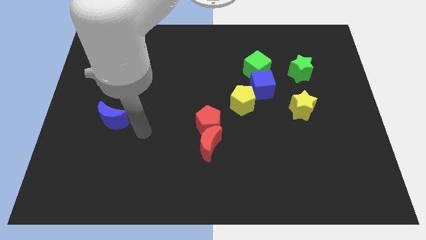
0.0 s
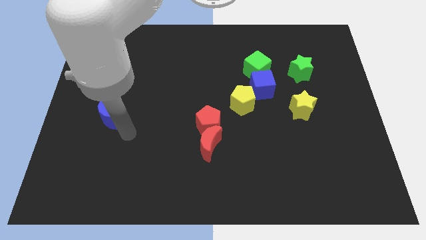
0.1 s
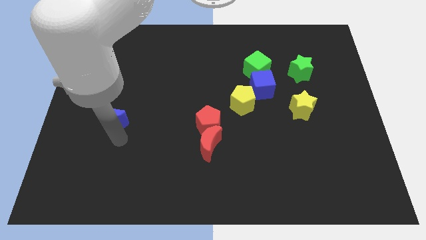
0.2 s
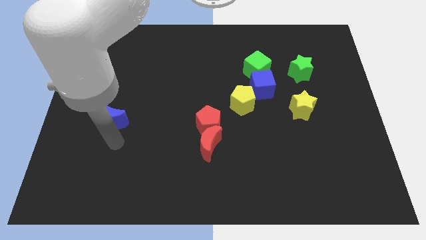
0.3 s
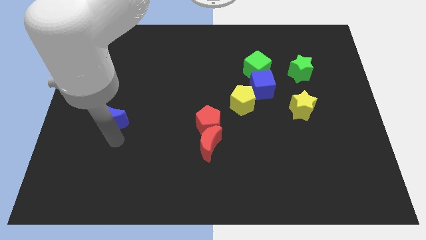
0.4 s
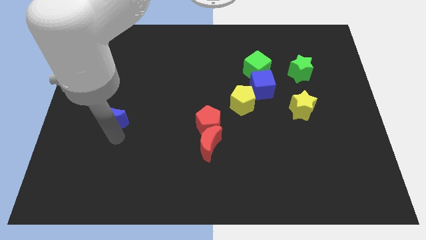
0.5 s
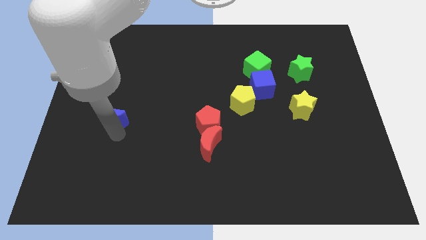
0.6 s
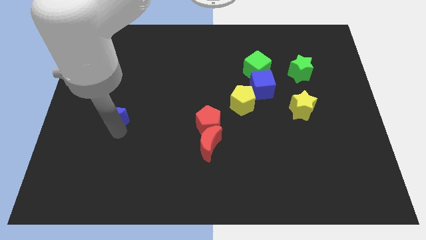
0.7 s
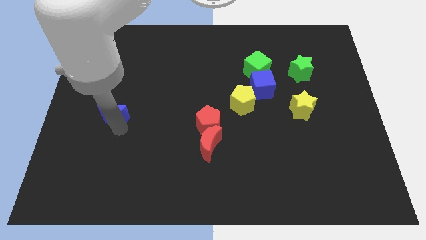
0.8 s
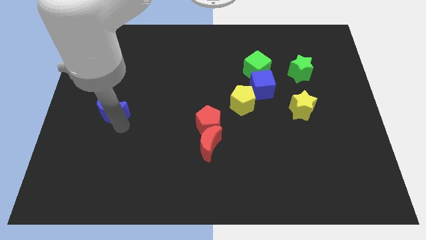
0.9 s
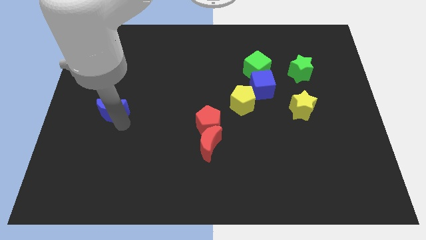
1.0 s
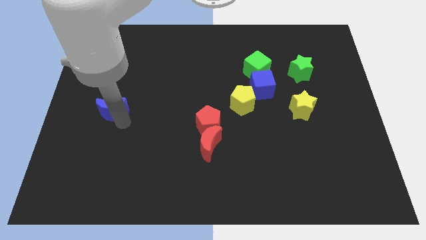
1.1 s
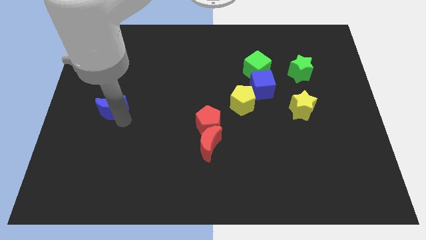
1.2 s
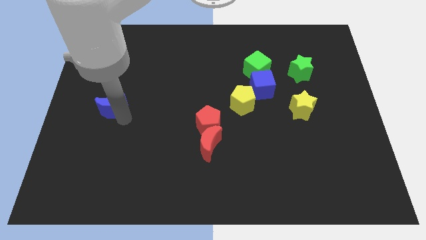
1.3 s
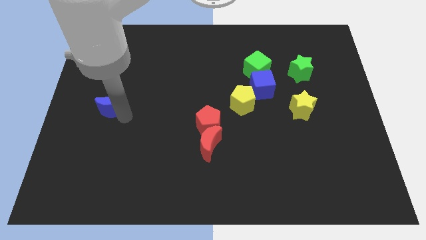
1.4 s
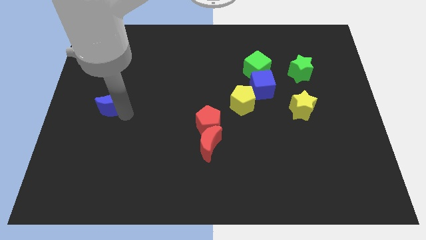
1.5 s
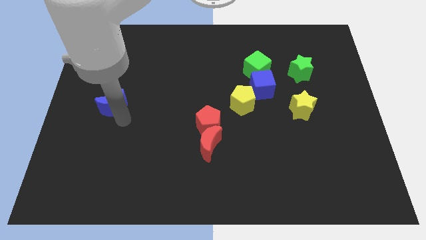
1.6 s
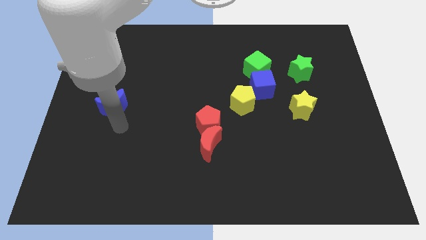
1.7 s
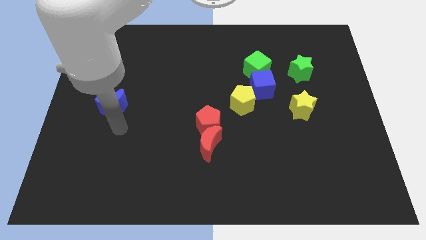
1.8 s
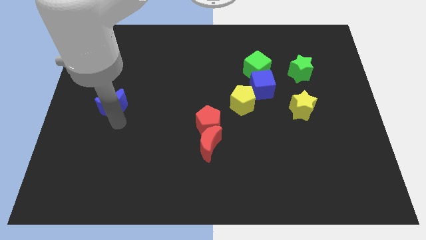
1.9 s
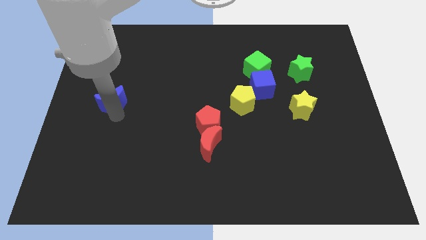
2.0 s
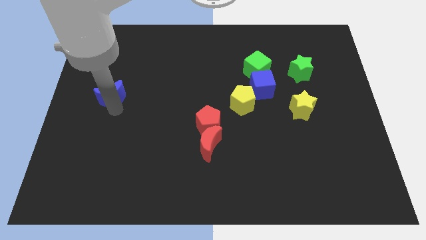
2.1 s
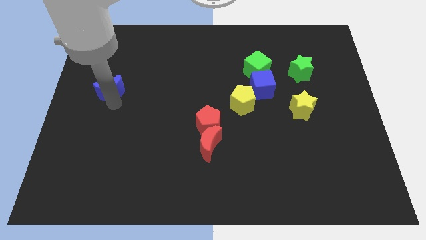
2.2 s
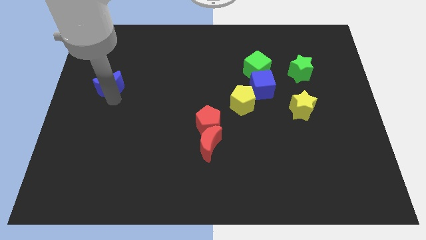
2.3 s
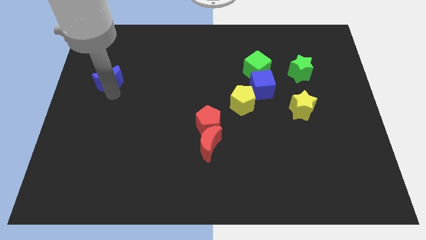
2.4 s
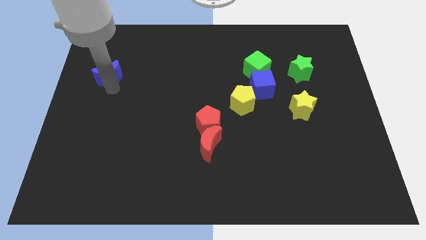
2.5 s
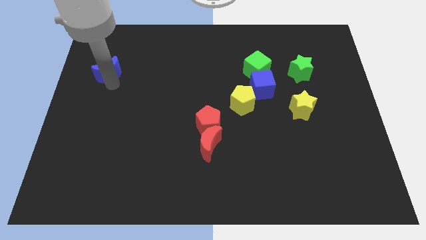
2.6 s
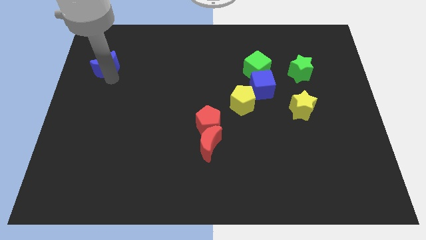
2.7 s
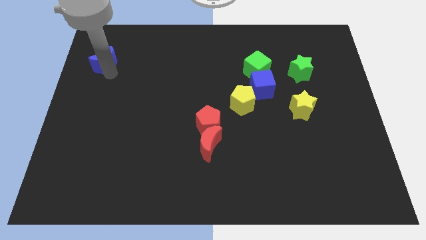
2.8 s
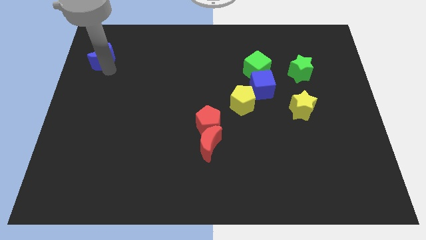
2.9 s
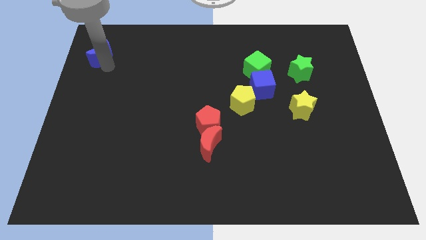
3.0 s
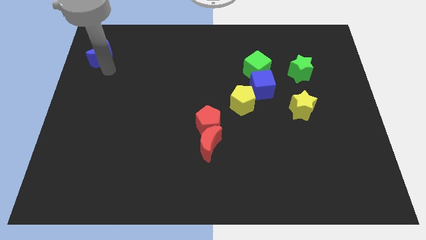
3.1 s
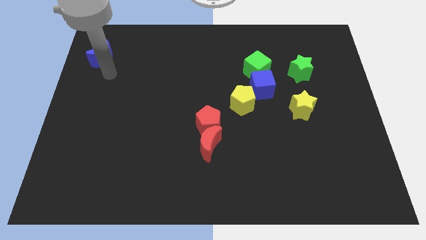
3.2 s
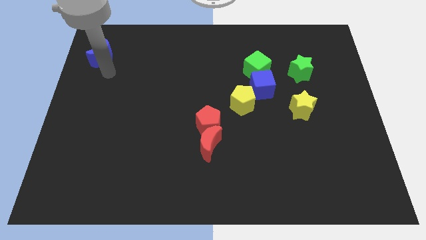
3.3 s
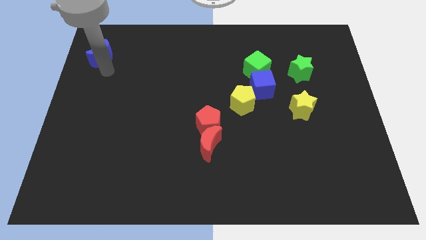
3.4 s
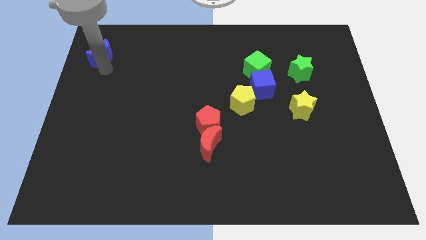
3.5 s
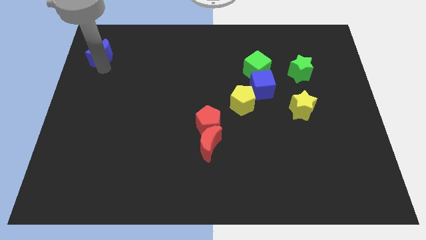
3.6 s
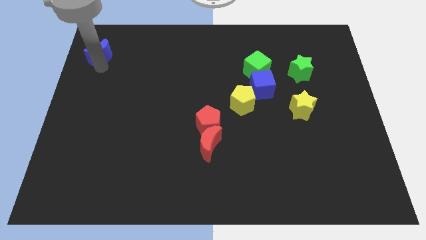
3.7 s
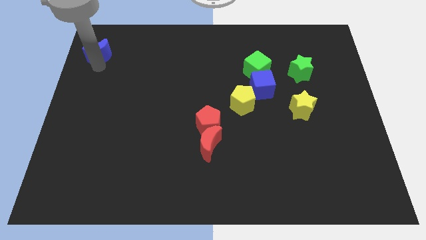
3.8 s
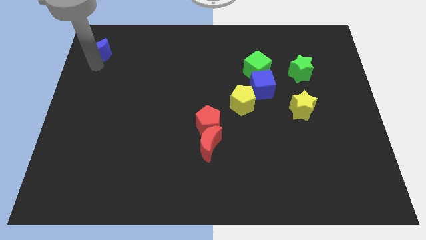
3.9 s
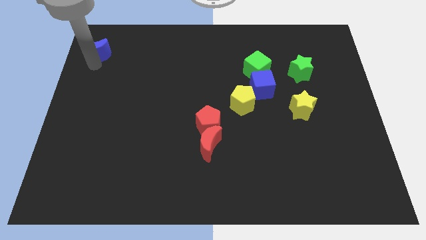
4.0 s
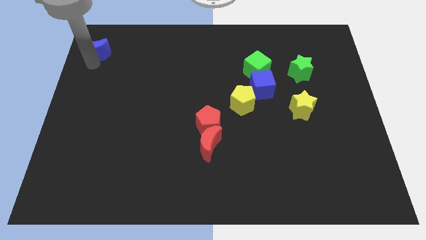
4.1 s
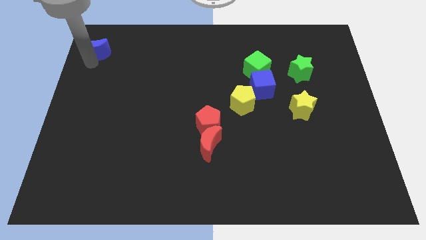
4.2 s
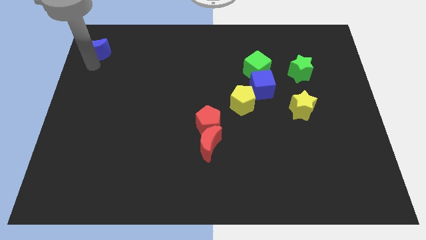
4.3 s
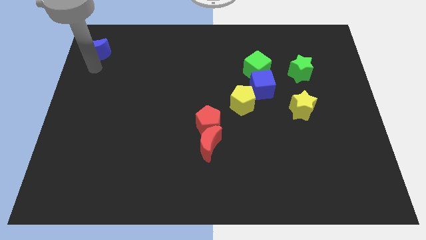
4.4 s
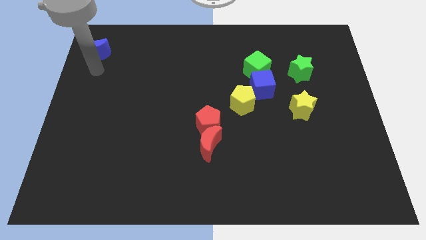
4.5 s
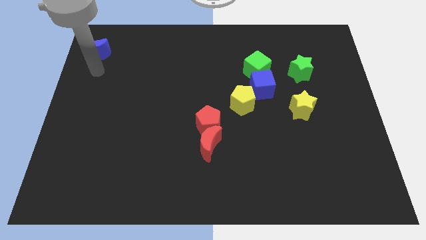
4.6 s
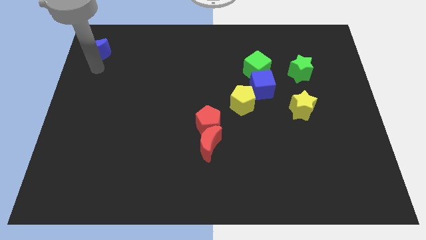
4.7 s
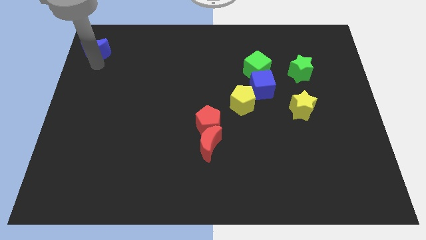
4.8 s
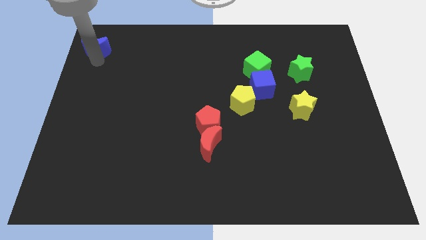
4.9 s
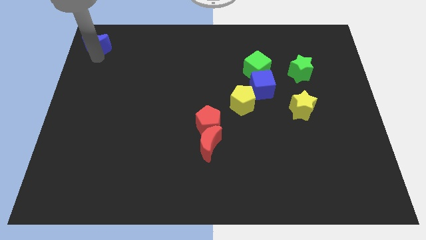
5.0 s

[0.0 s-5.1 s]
slide the blue moon to the top left

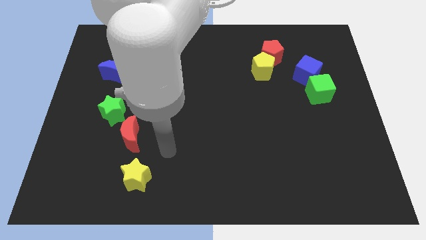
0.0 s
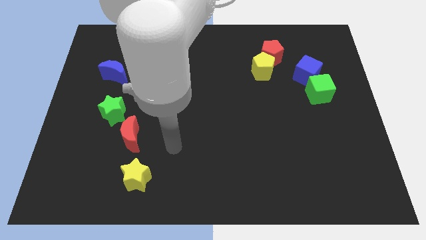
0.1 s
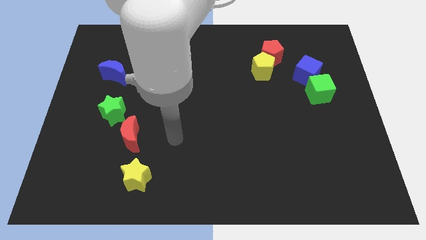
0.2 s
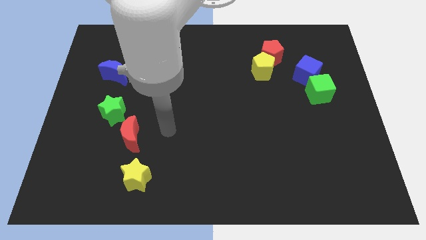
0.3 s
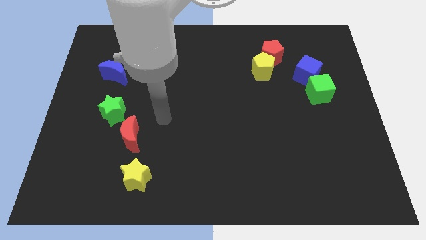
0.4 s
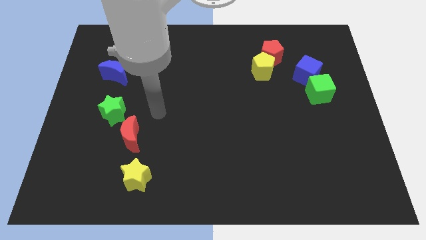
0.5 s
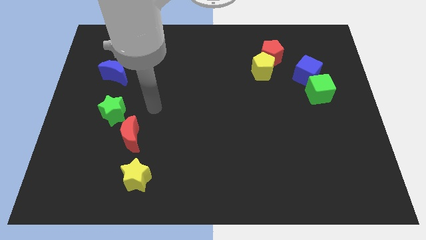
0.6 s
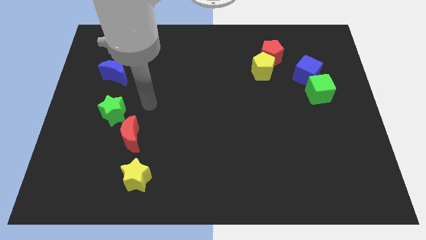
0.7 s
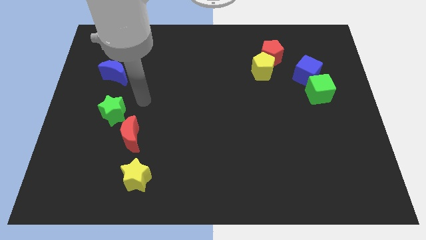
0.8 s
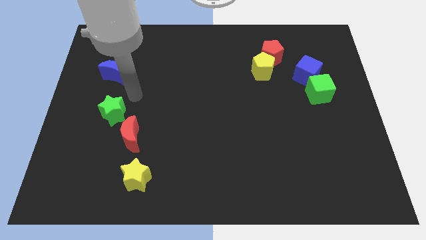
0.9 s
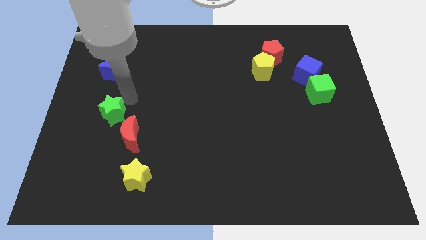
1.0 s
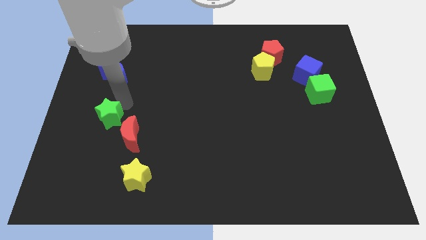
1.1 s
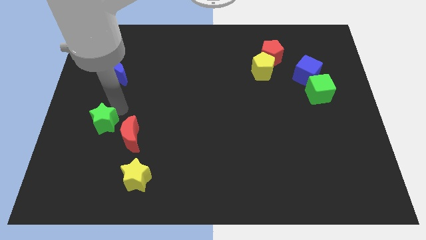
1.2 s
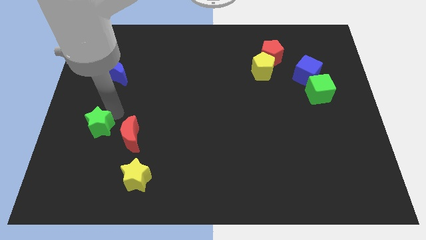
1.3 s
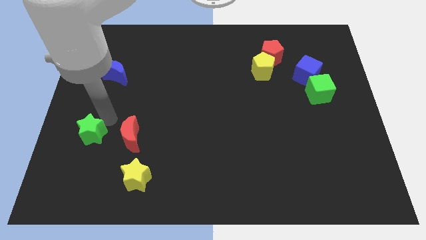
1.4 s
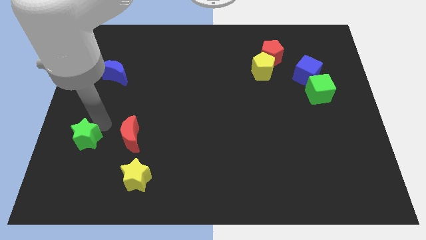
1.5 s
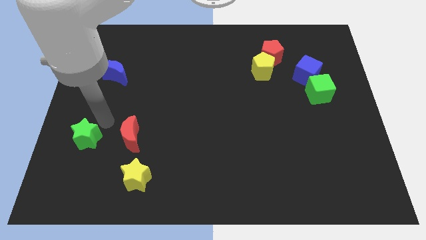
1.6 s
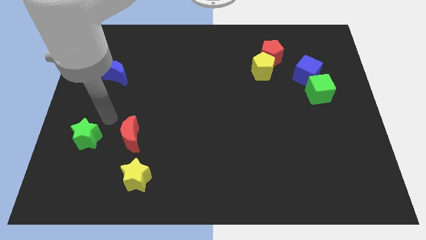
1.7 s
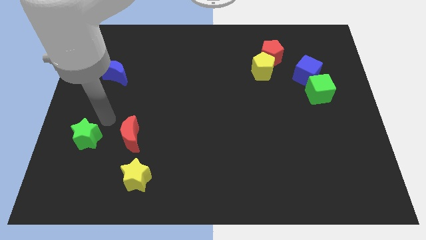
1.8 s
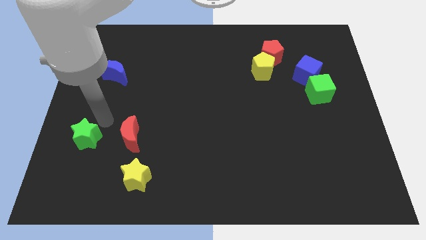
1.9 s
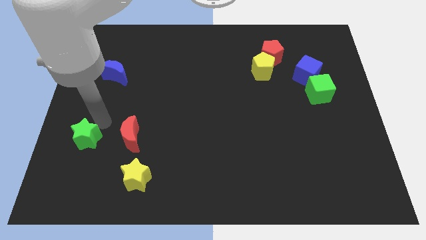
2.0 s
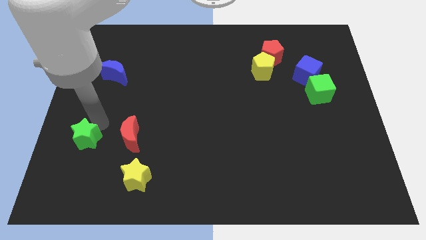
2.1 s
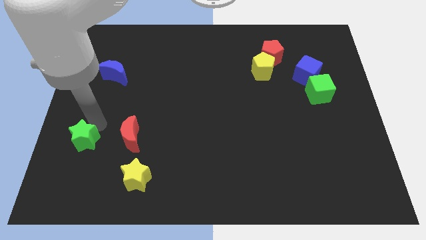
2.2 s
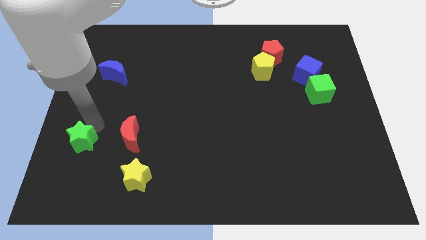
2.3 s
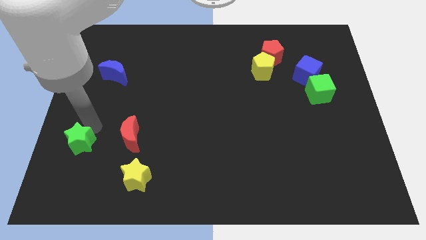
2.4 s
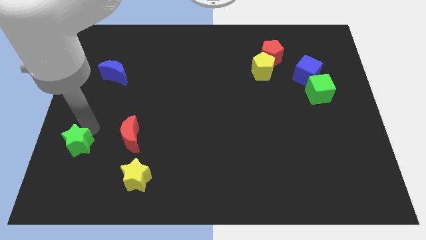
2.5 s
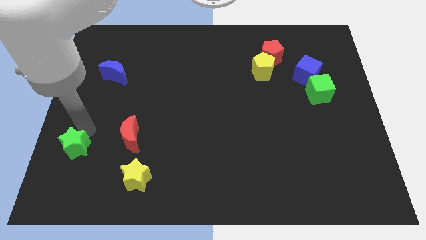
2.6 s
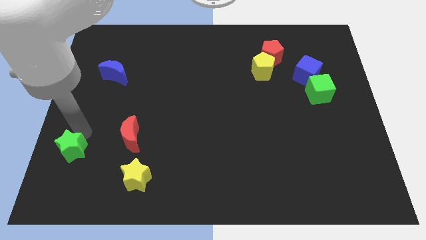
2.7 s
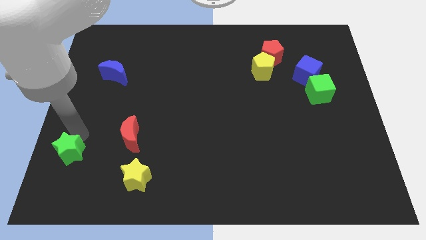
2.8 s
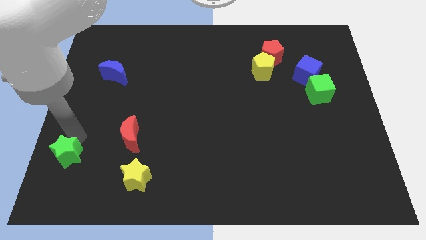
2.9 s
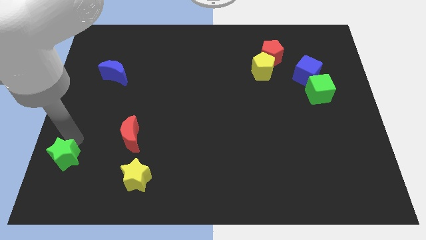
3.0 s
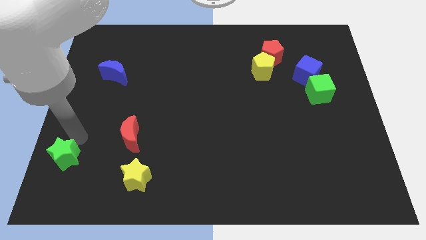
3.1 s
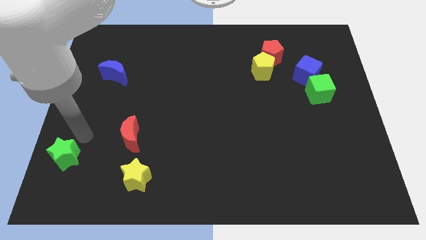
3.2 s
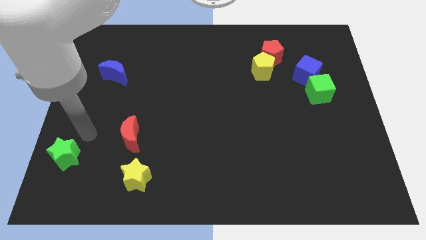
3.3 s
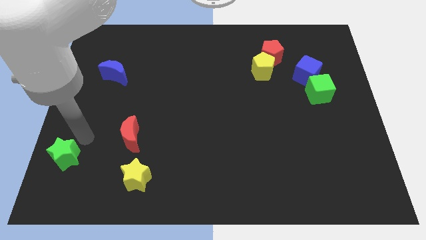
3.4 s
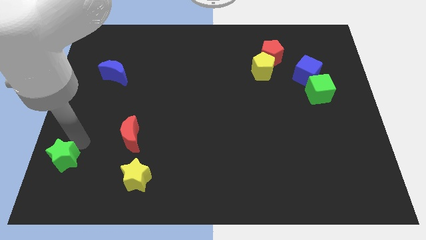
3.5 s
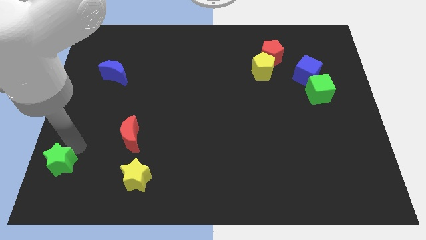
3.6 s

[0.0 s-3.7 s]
push the green star to the bottom left corner
